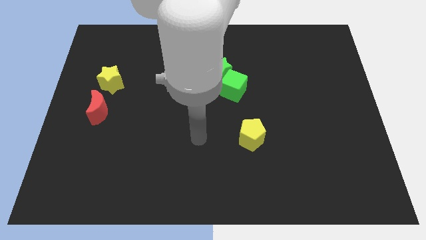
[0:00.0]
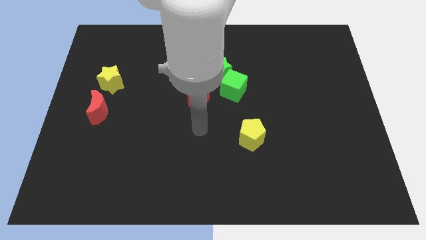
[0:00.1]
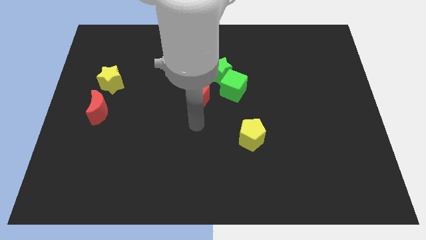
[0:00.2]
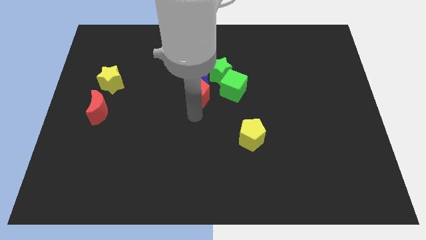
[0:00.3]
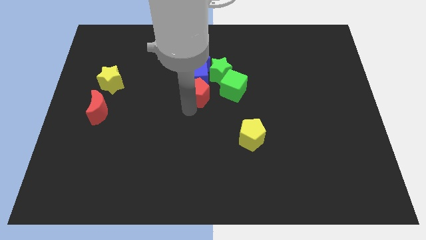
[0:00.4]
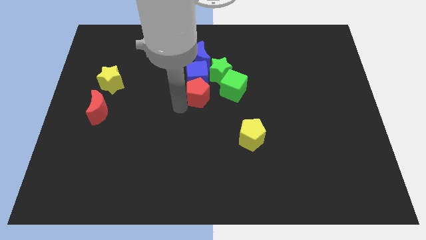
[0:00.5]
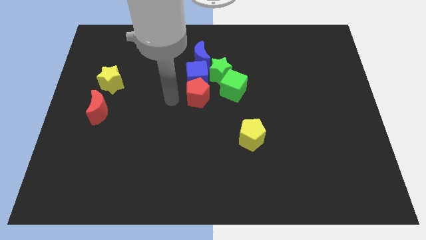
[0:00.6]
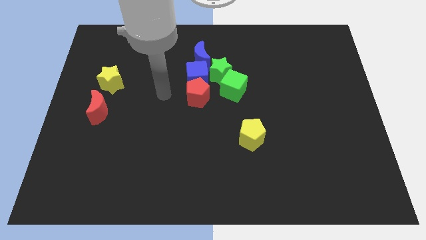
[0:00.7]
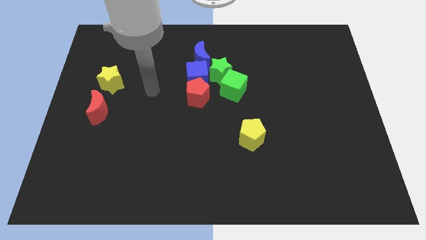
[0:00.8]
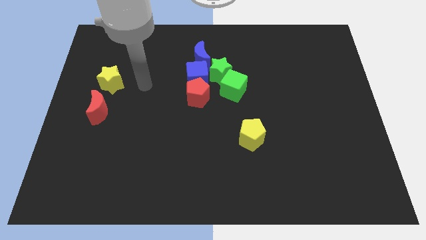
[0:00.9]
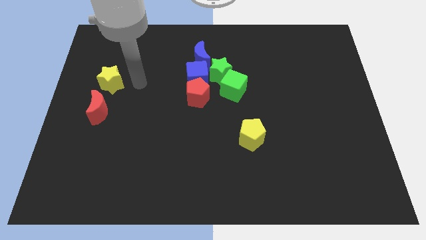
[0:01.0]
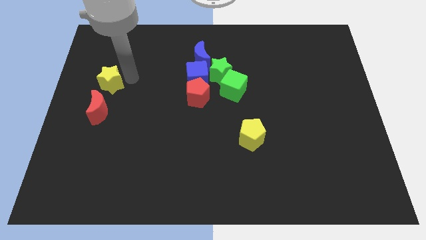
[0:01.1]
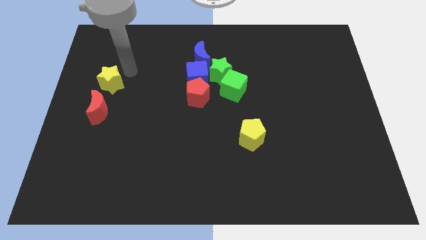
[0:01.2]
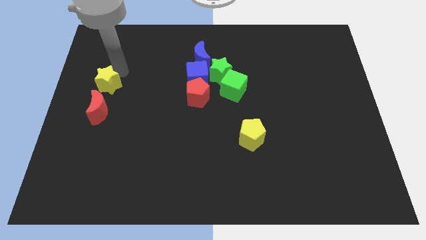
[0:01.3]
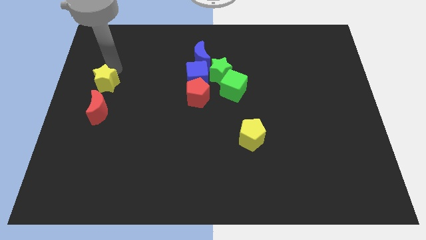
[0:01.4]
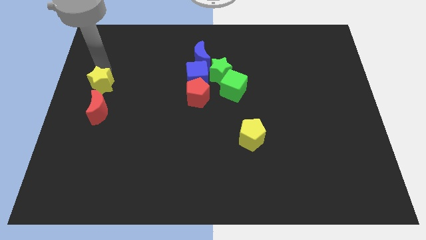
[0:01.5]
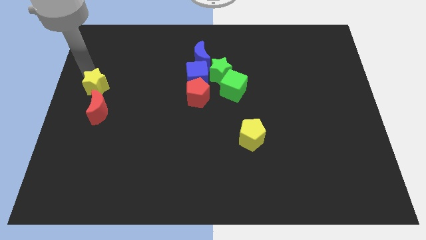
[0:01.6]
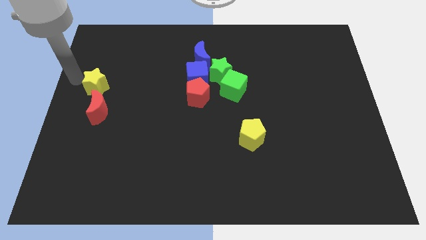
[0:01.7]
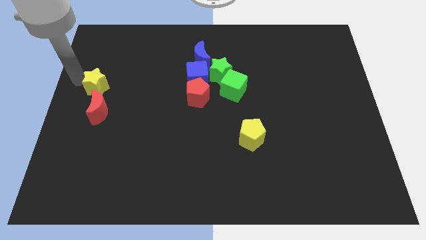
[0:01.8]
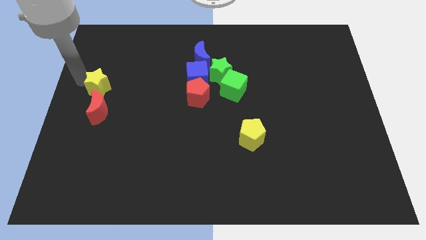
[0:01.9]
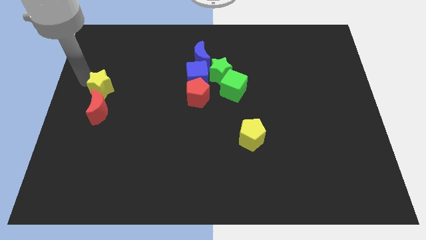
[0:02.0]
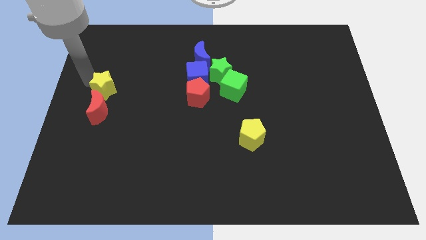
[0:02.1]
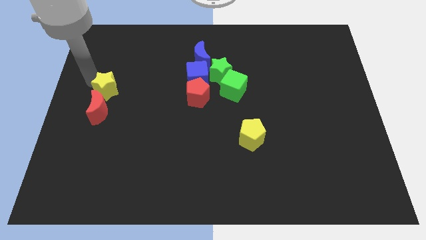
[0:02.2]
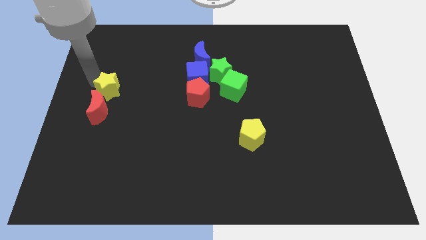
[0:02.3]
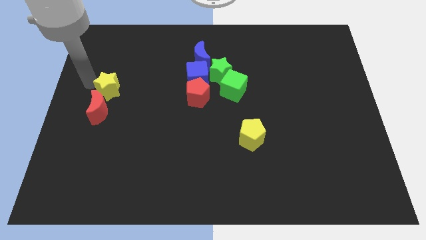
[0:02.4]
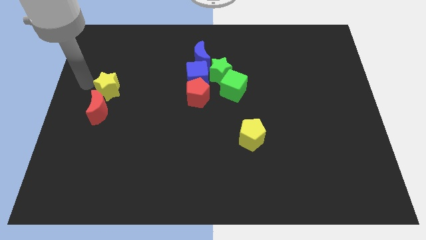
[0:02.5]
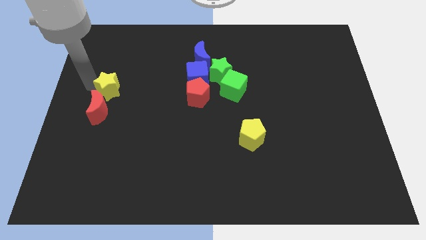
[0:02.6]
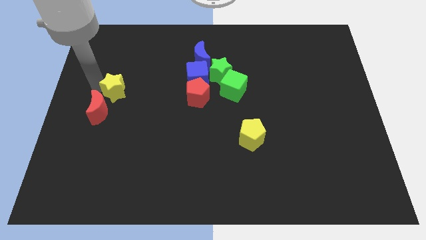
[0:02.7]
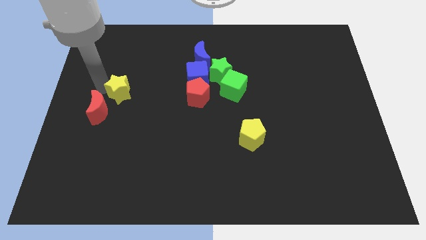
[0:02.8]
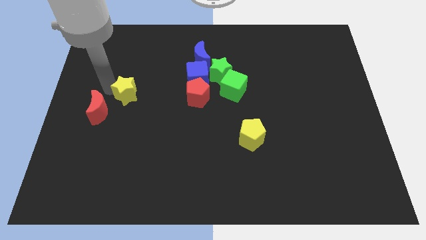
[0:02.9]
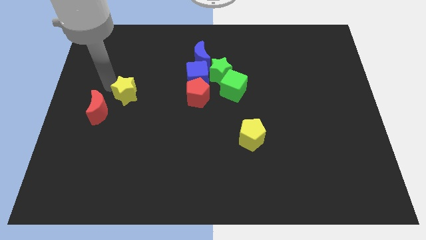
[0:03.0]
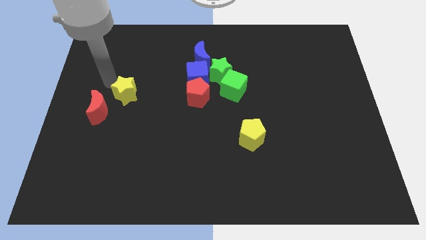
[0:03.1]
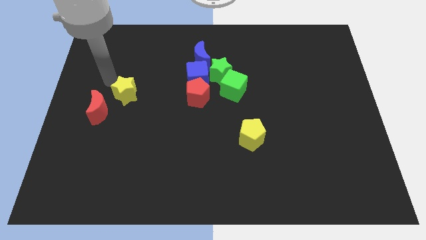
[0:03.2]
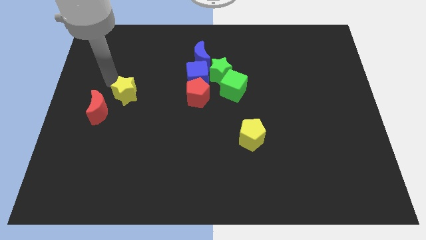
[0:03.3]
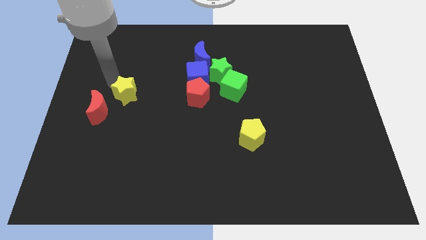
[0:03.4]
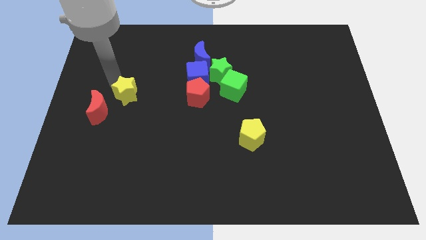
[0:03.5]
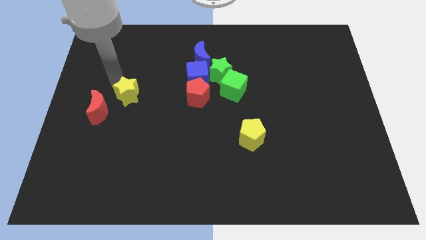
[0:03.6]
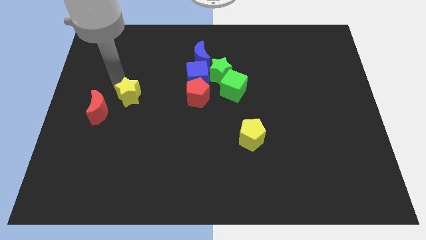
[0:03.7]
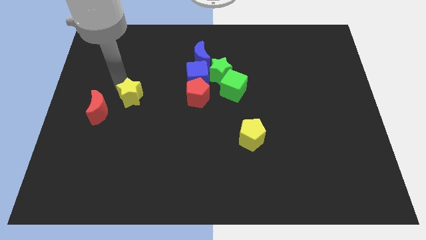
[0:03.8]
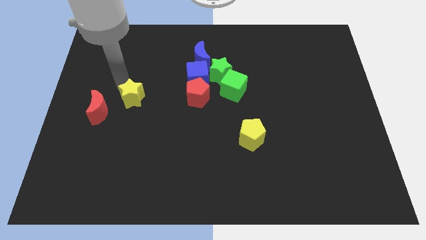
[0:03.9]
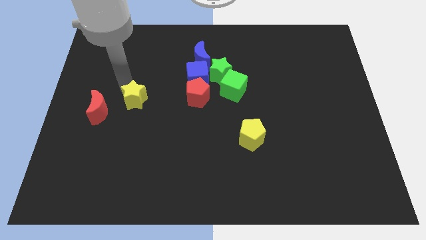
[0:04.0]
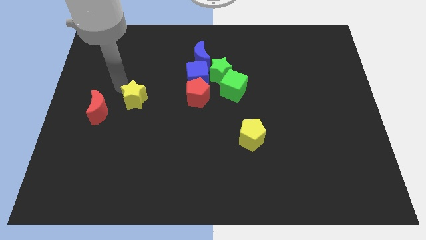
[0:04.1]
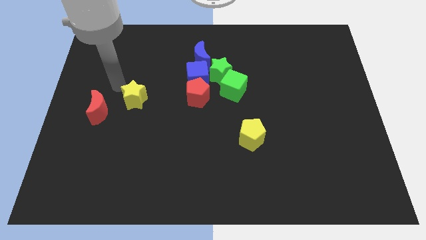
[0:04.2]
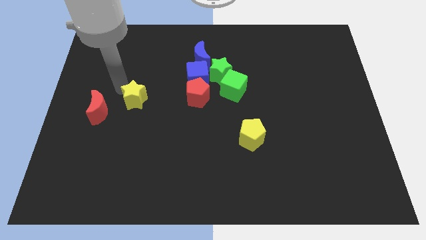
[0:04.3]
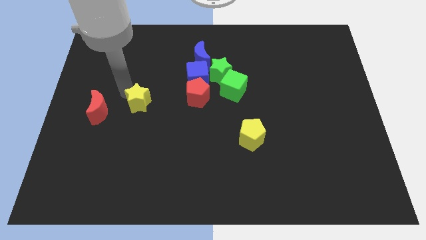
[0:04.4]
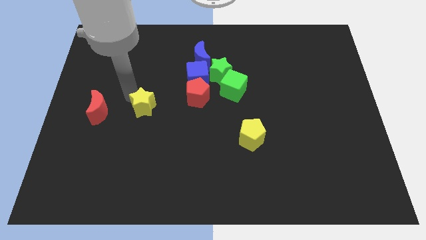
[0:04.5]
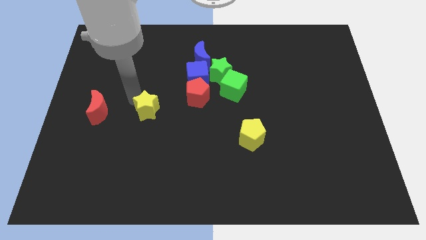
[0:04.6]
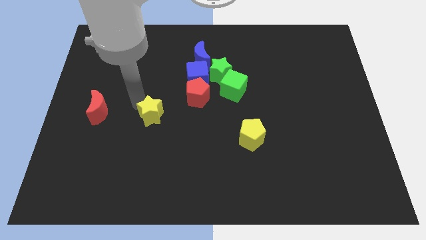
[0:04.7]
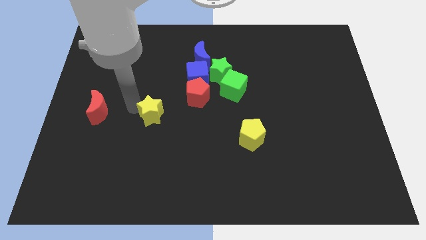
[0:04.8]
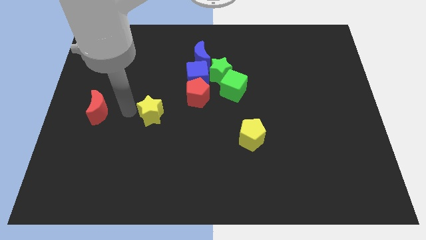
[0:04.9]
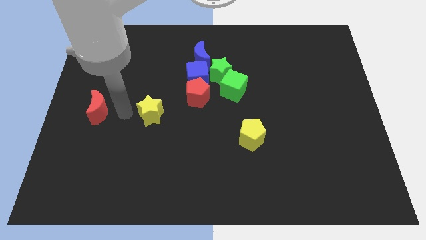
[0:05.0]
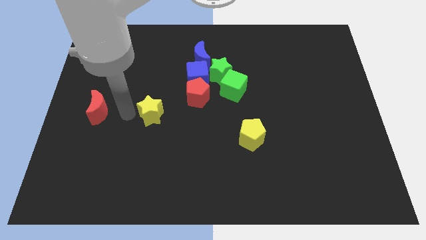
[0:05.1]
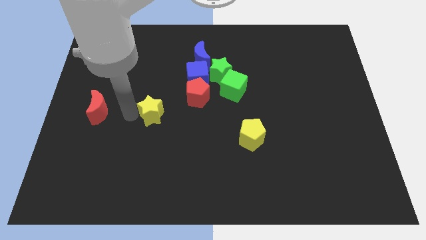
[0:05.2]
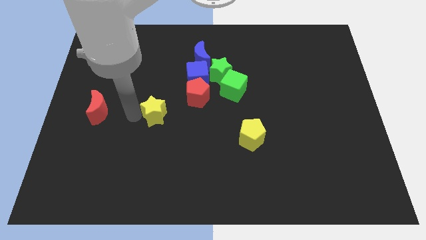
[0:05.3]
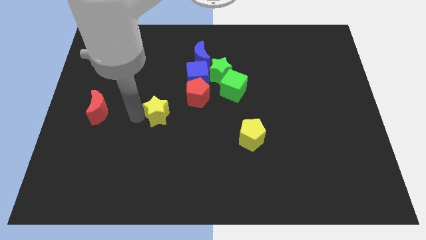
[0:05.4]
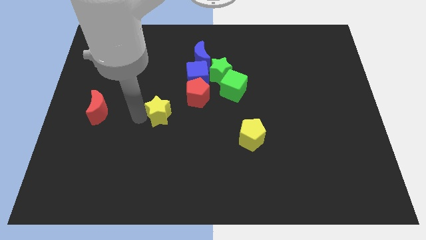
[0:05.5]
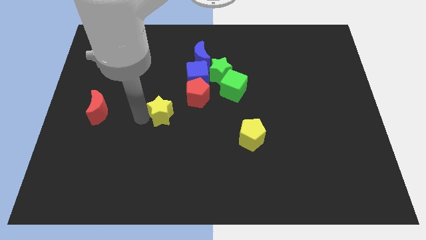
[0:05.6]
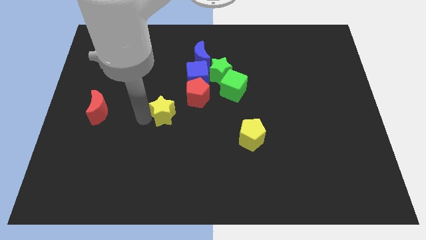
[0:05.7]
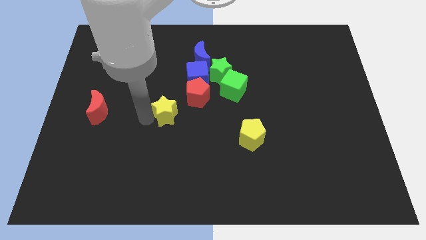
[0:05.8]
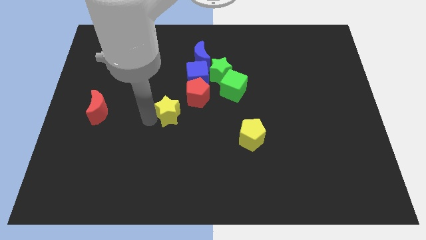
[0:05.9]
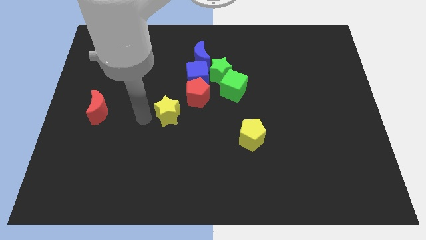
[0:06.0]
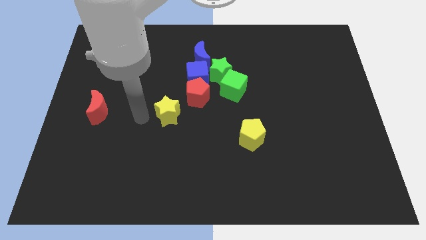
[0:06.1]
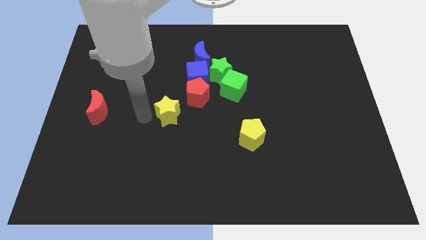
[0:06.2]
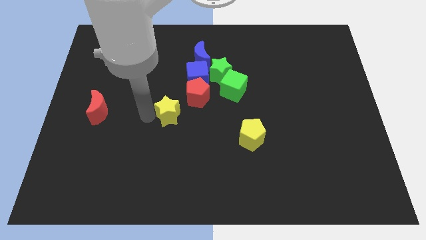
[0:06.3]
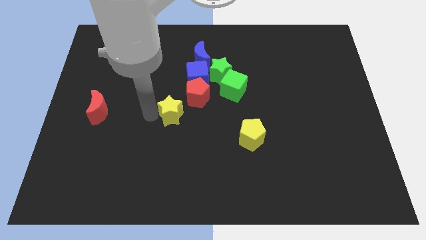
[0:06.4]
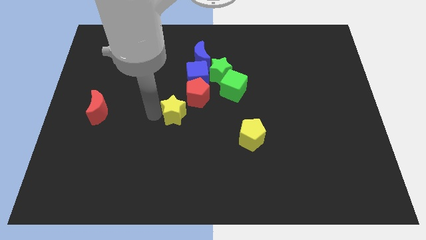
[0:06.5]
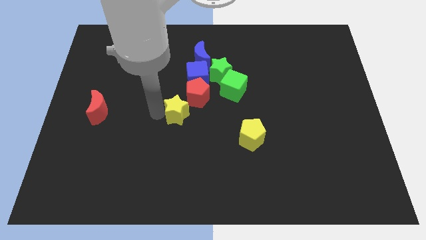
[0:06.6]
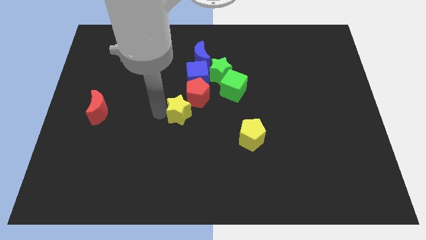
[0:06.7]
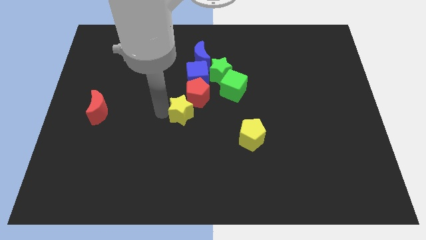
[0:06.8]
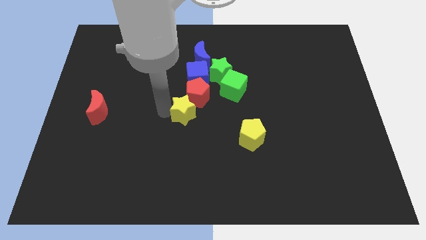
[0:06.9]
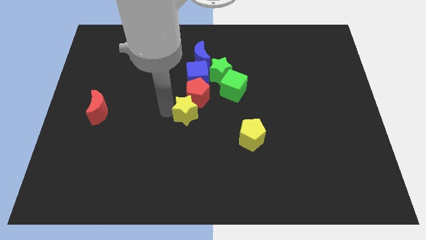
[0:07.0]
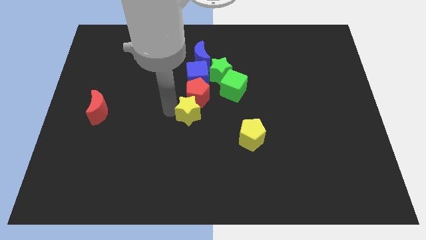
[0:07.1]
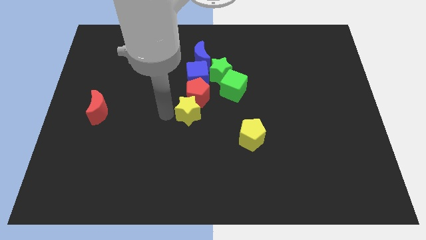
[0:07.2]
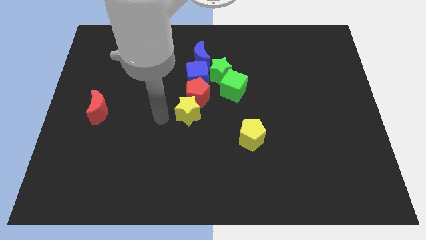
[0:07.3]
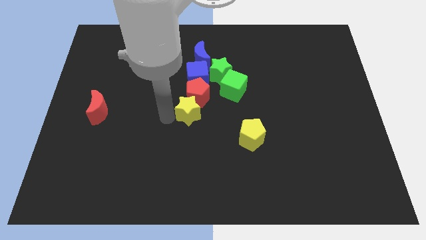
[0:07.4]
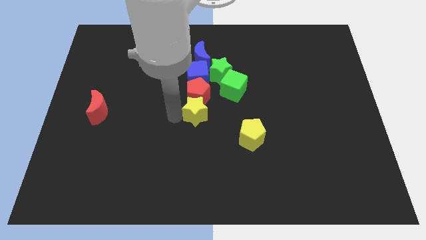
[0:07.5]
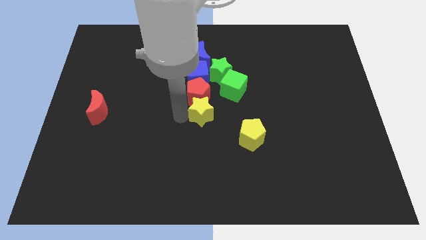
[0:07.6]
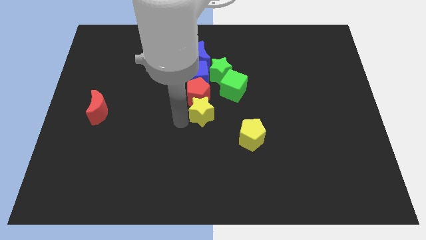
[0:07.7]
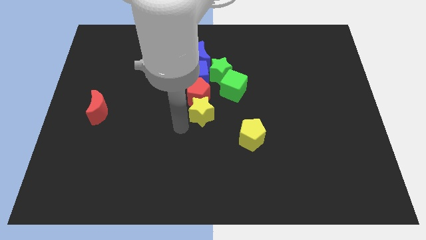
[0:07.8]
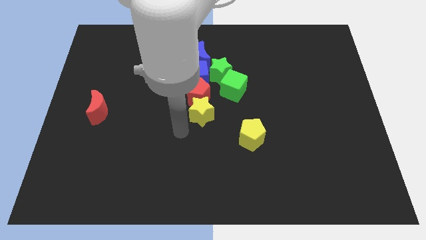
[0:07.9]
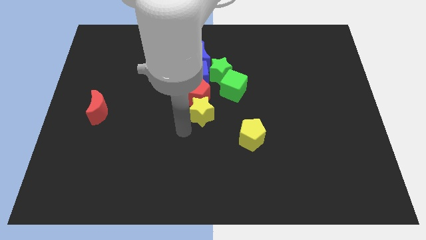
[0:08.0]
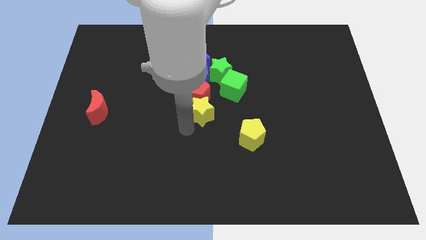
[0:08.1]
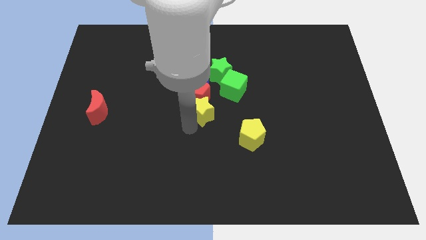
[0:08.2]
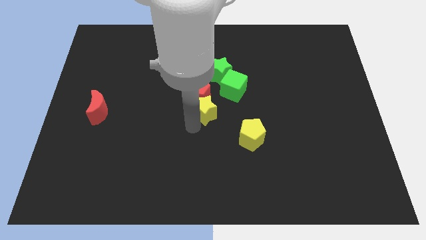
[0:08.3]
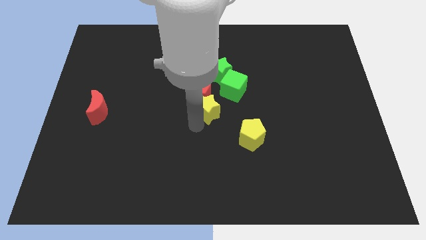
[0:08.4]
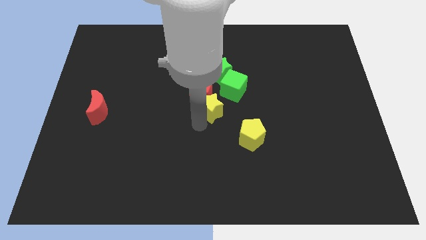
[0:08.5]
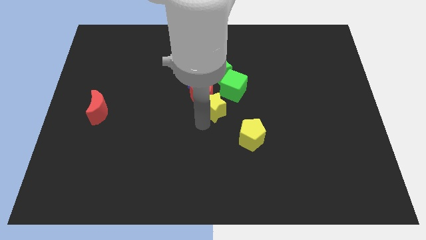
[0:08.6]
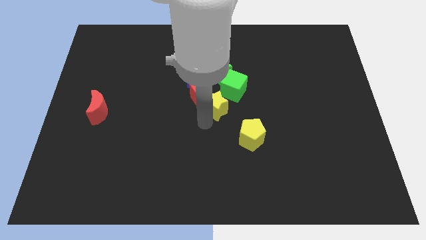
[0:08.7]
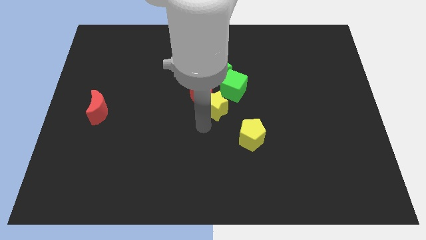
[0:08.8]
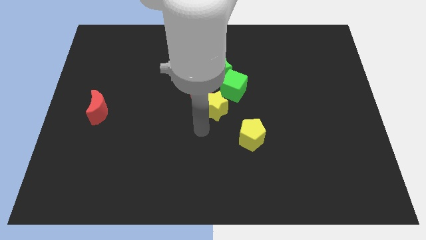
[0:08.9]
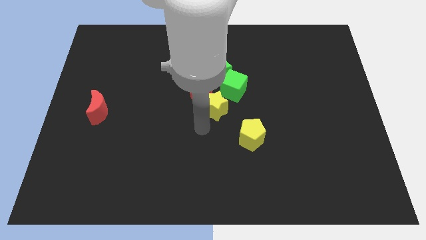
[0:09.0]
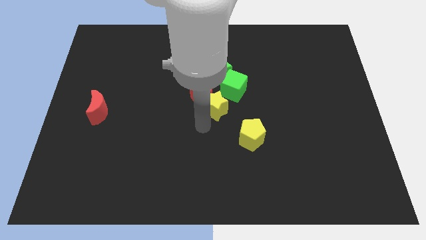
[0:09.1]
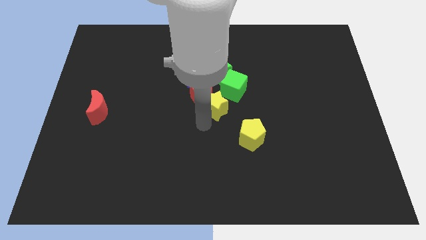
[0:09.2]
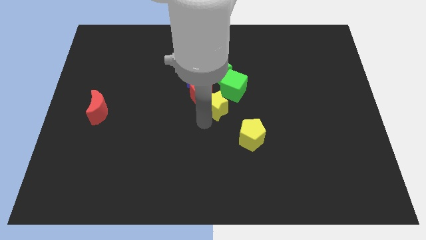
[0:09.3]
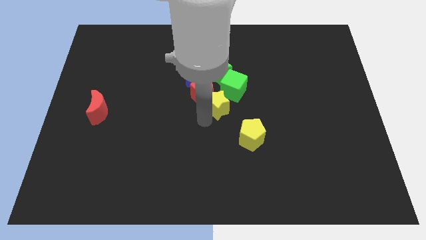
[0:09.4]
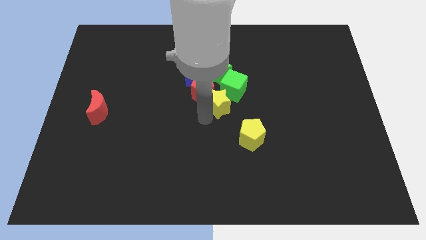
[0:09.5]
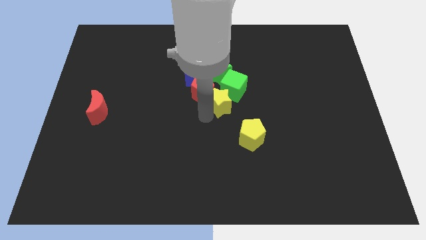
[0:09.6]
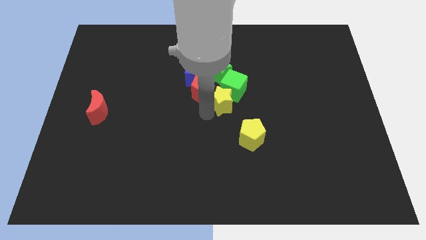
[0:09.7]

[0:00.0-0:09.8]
put the yellow star next to the green cube
